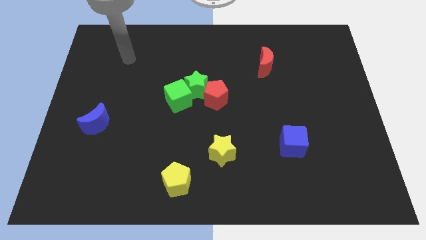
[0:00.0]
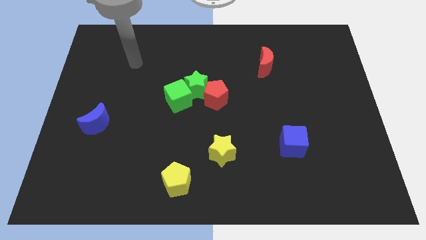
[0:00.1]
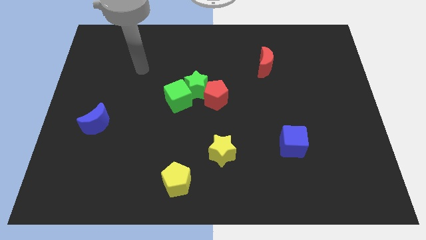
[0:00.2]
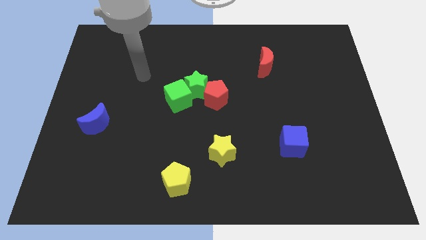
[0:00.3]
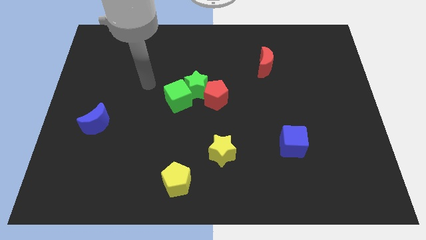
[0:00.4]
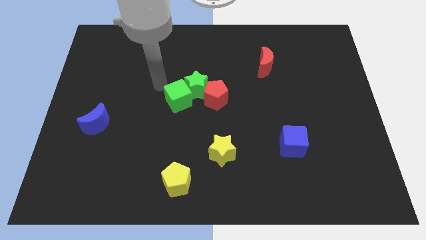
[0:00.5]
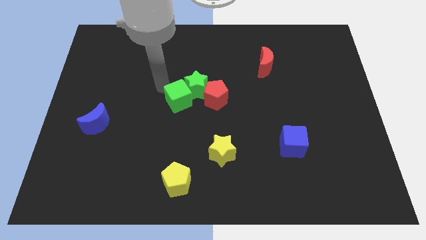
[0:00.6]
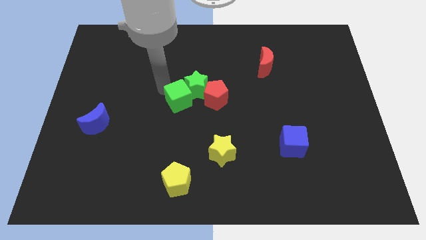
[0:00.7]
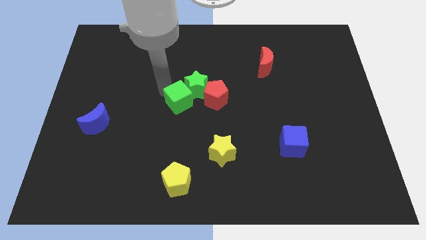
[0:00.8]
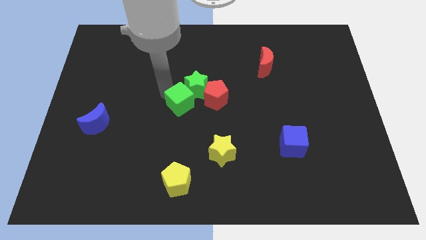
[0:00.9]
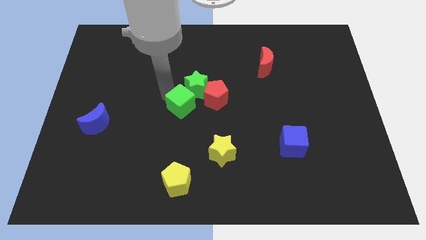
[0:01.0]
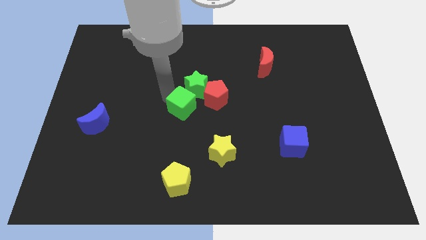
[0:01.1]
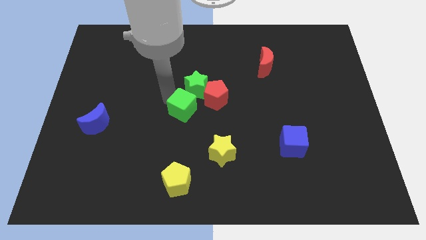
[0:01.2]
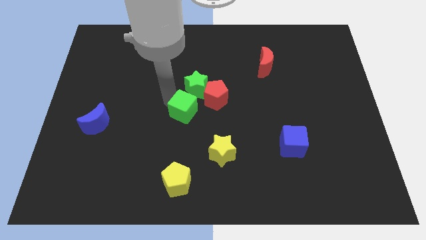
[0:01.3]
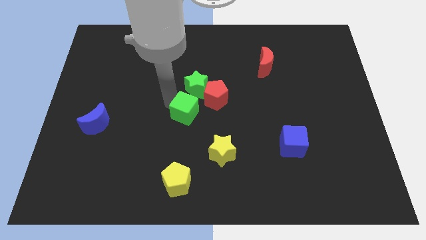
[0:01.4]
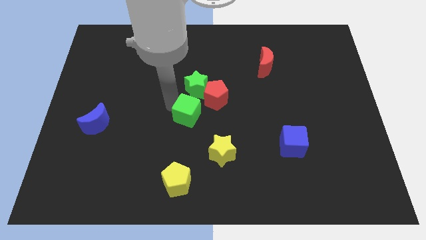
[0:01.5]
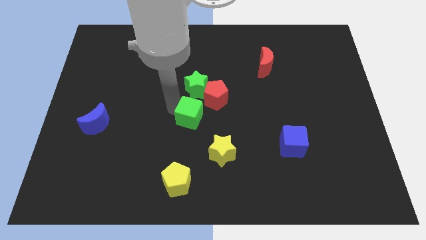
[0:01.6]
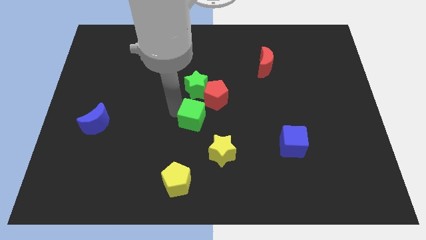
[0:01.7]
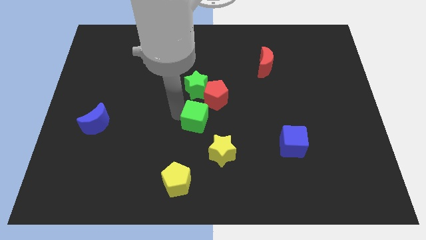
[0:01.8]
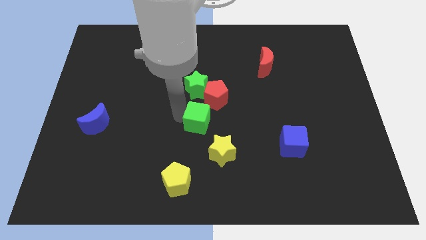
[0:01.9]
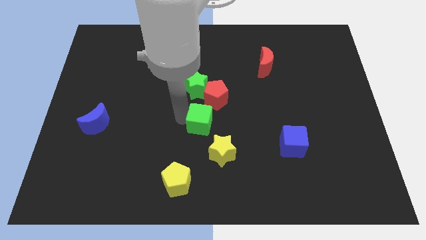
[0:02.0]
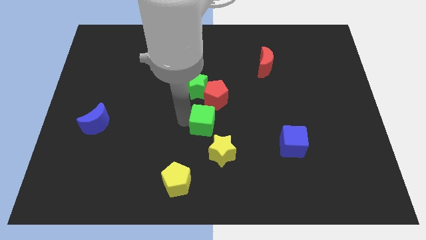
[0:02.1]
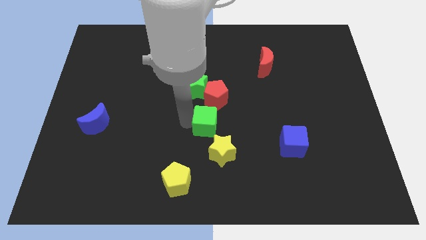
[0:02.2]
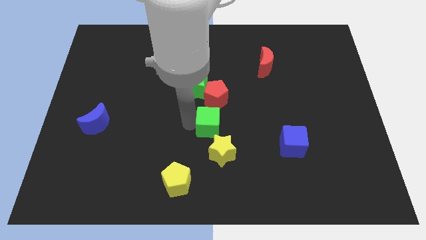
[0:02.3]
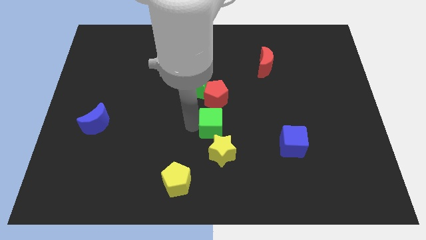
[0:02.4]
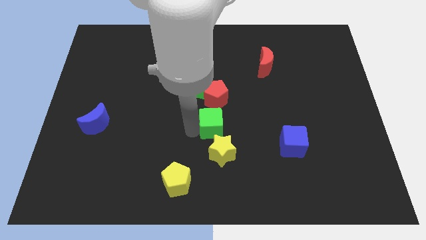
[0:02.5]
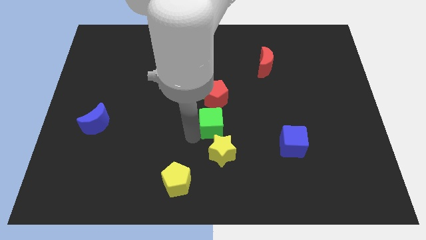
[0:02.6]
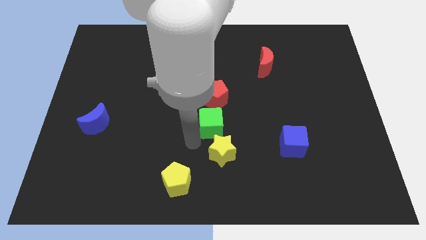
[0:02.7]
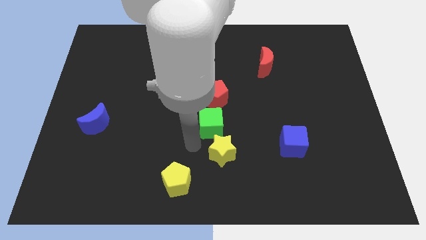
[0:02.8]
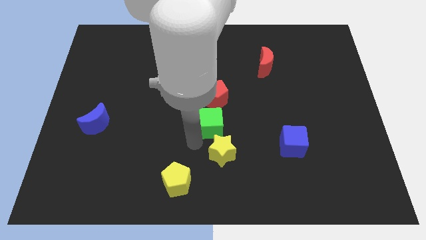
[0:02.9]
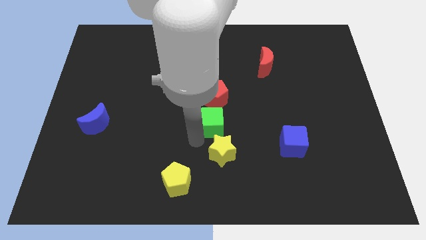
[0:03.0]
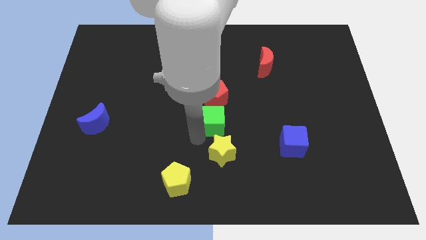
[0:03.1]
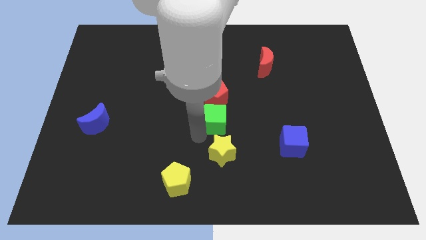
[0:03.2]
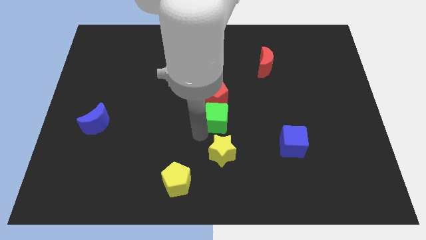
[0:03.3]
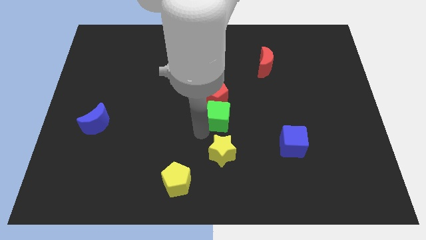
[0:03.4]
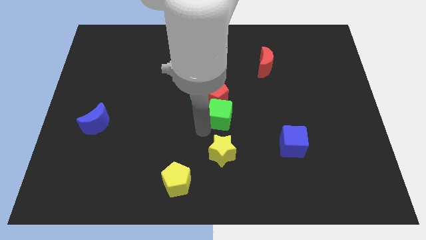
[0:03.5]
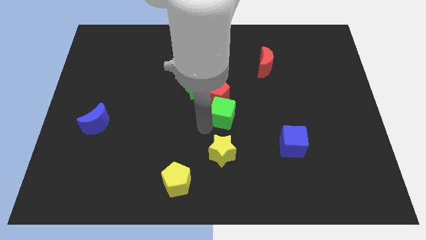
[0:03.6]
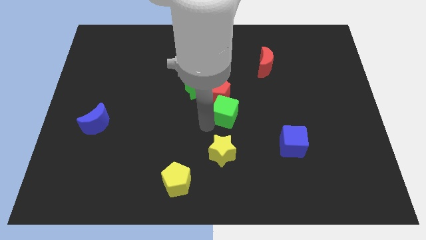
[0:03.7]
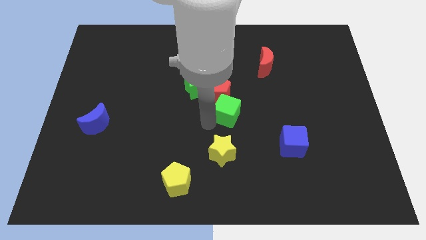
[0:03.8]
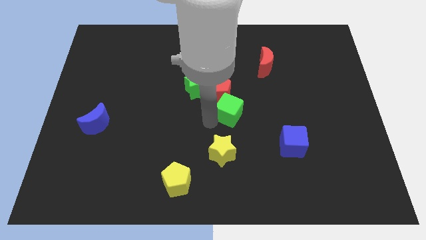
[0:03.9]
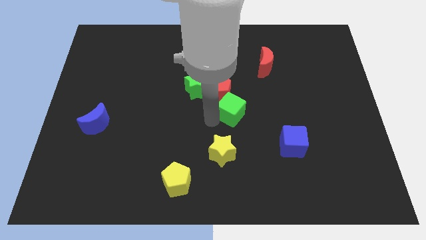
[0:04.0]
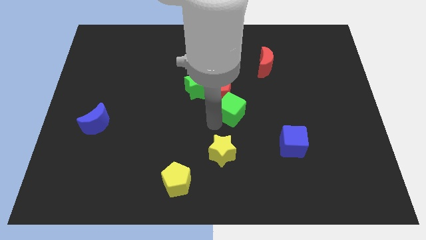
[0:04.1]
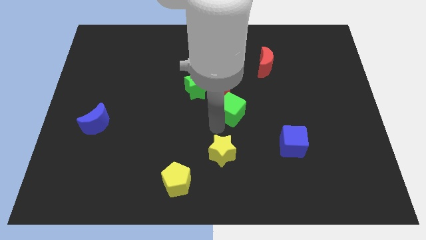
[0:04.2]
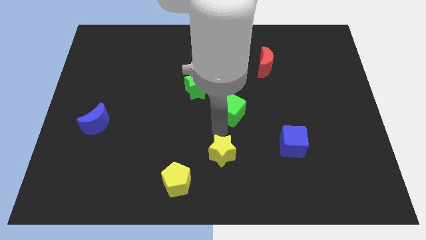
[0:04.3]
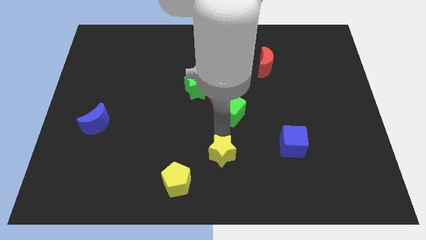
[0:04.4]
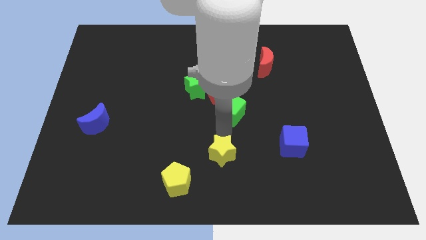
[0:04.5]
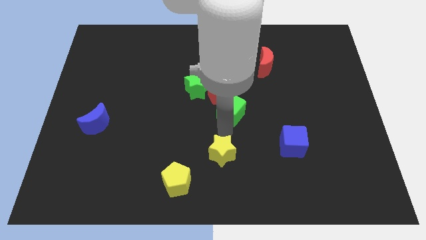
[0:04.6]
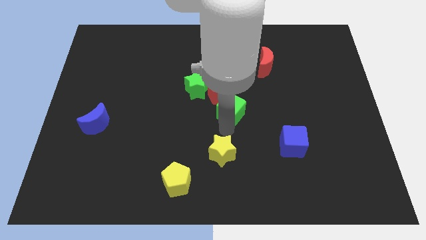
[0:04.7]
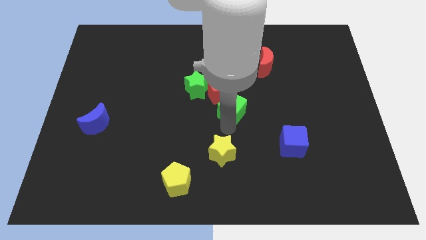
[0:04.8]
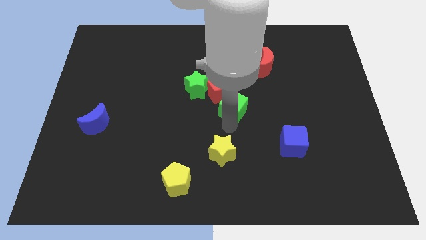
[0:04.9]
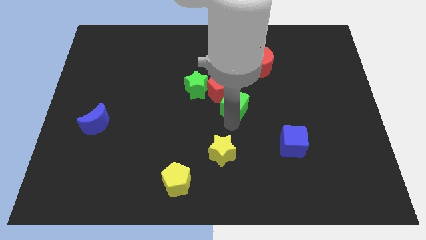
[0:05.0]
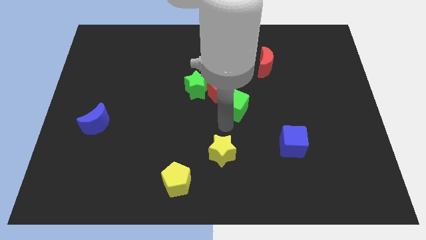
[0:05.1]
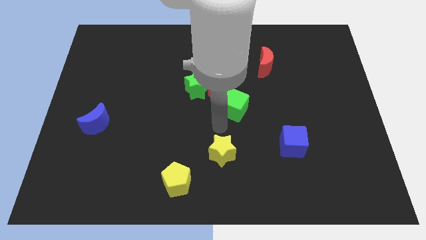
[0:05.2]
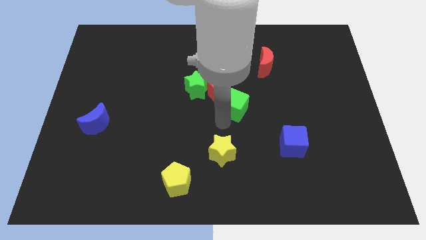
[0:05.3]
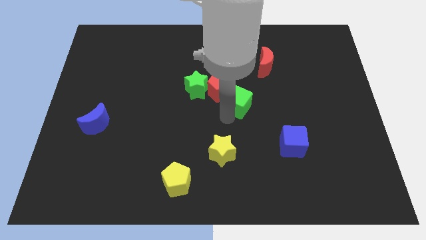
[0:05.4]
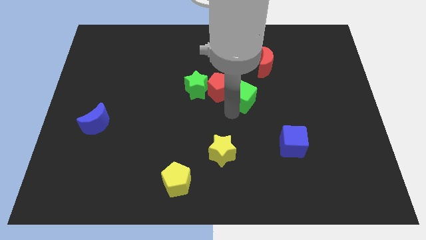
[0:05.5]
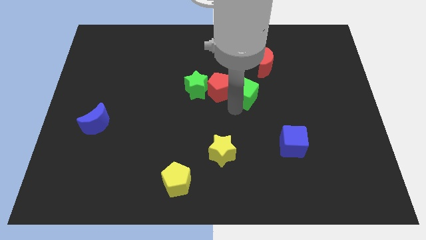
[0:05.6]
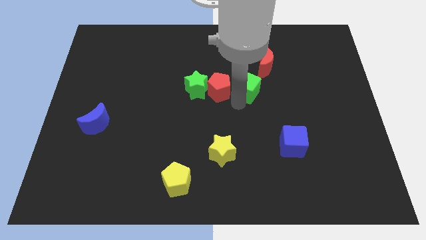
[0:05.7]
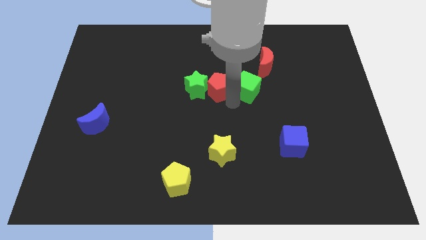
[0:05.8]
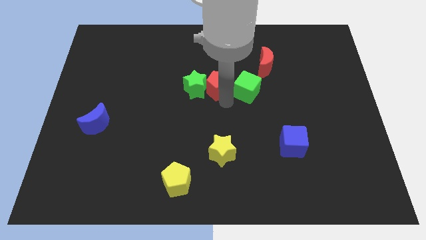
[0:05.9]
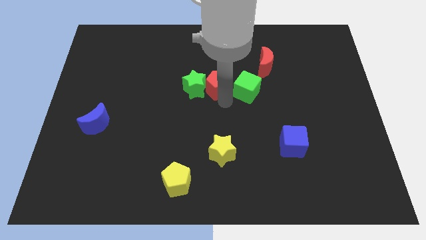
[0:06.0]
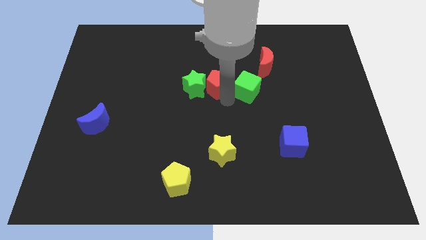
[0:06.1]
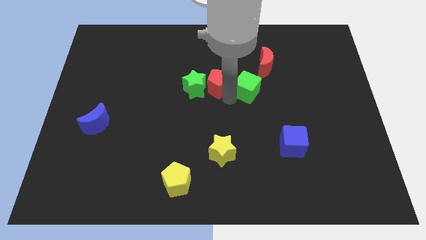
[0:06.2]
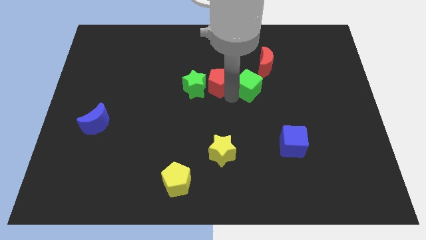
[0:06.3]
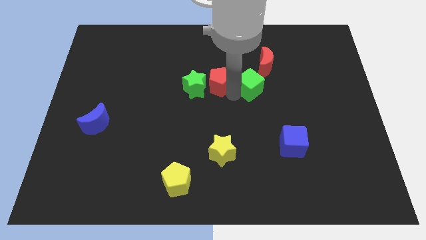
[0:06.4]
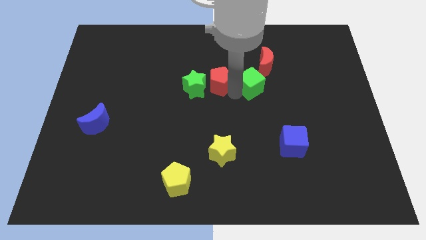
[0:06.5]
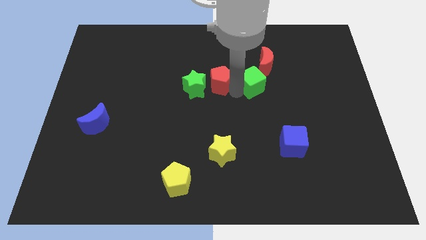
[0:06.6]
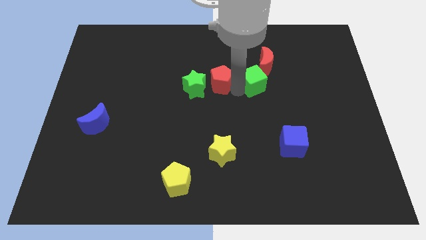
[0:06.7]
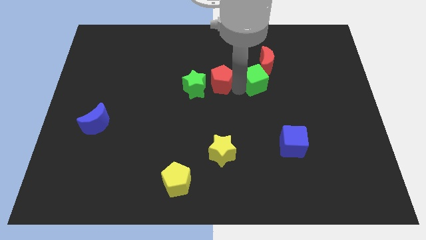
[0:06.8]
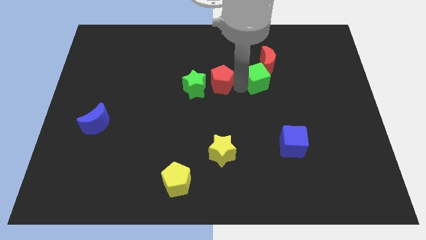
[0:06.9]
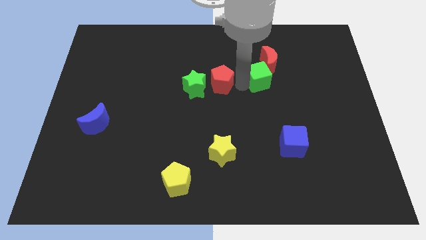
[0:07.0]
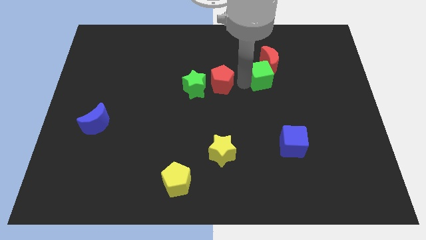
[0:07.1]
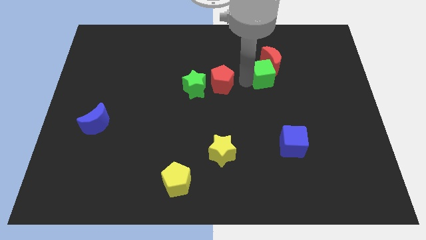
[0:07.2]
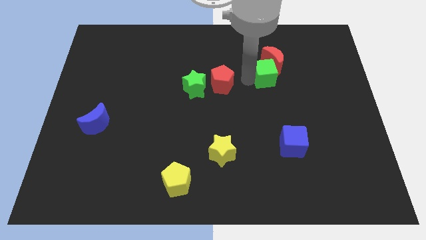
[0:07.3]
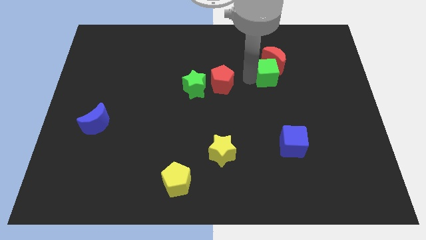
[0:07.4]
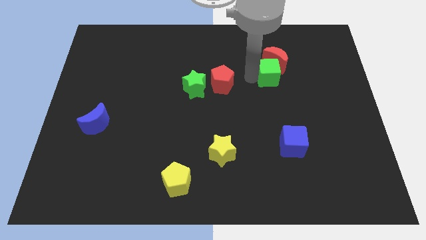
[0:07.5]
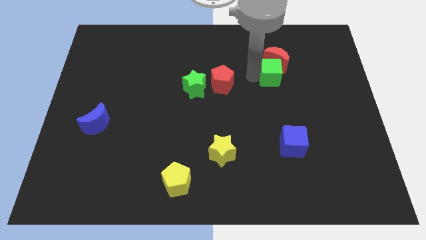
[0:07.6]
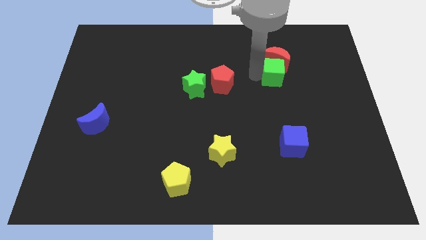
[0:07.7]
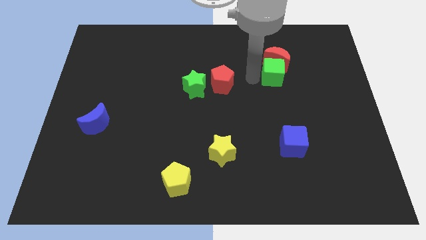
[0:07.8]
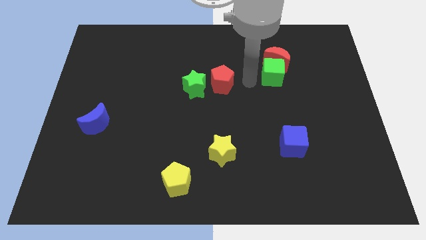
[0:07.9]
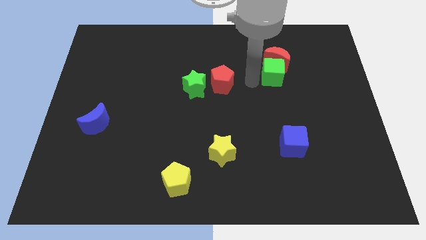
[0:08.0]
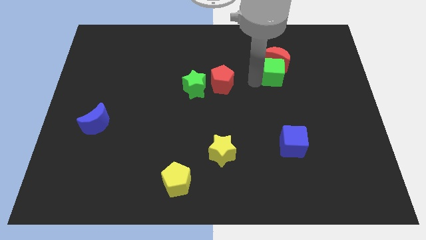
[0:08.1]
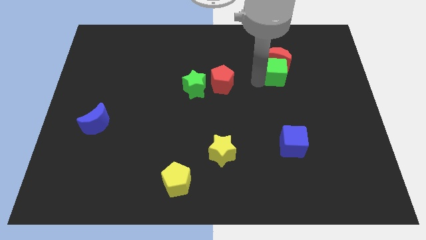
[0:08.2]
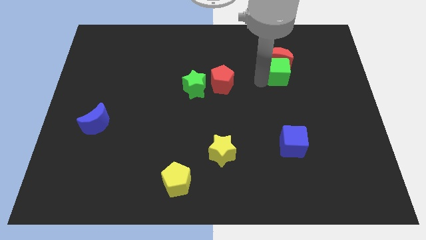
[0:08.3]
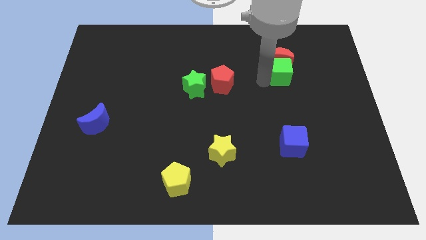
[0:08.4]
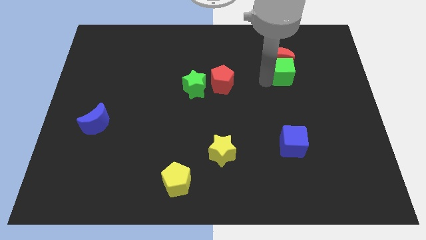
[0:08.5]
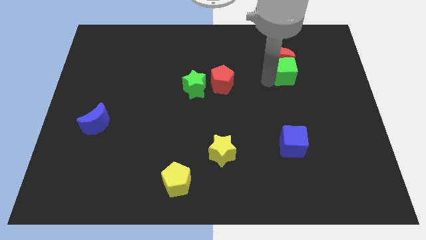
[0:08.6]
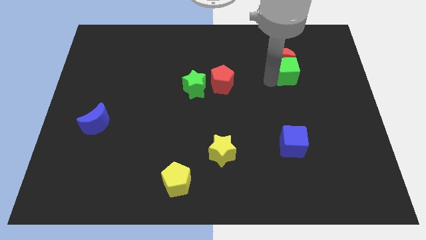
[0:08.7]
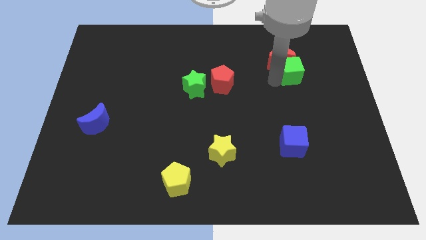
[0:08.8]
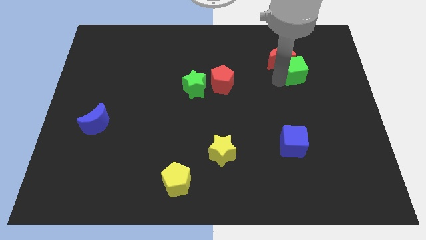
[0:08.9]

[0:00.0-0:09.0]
move the green cube just right of the red moon
